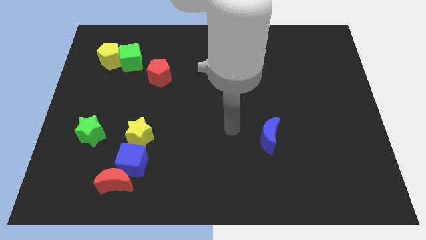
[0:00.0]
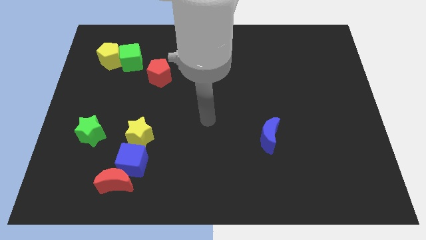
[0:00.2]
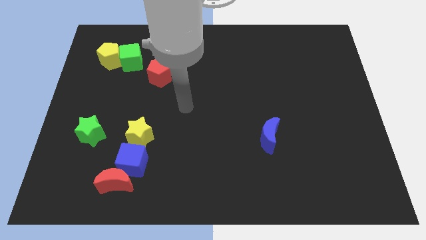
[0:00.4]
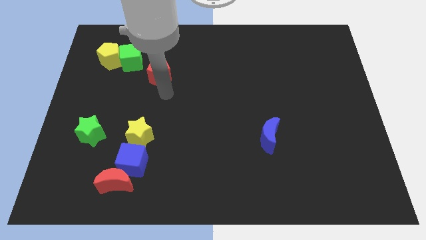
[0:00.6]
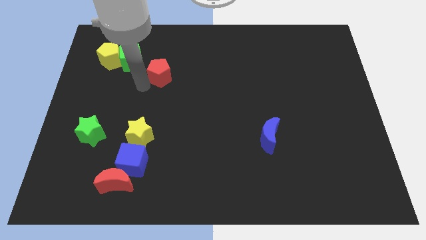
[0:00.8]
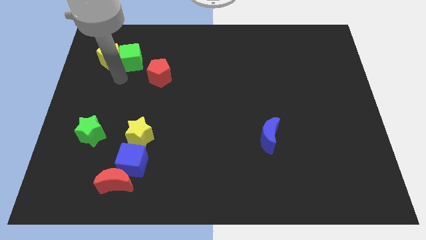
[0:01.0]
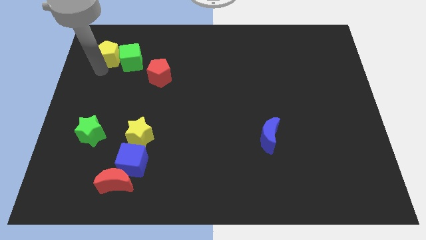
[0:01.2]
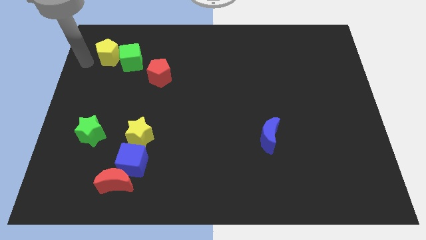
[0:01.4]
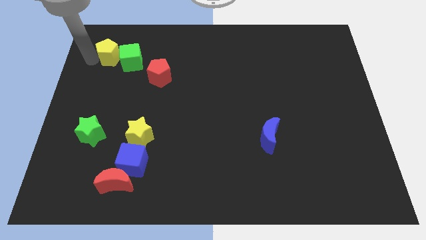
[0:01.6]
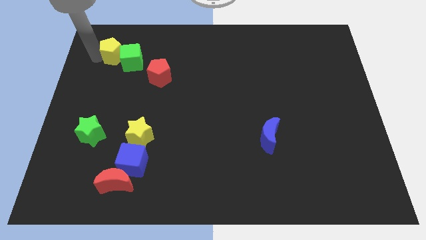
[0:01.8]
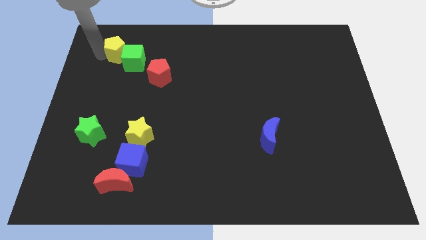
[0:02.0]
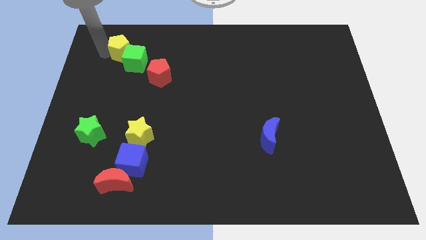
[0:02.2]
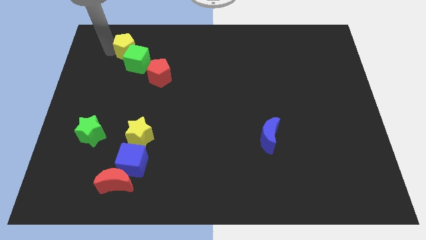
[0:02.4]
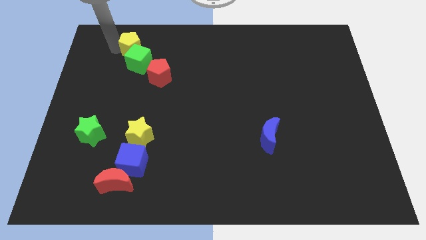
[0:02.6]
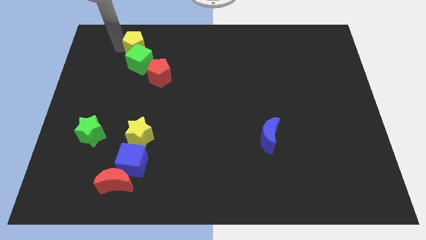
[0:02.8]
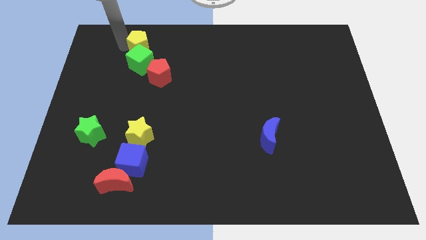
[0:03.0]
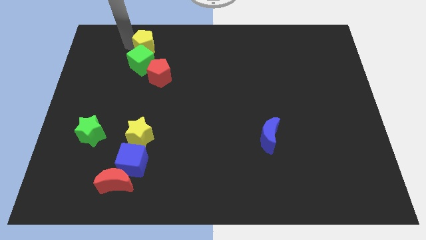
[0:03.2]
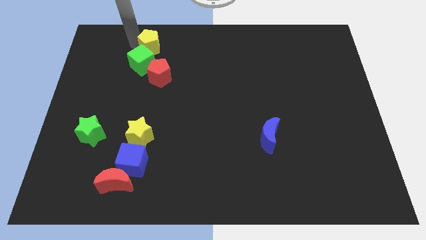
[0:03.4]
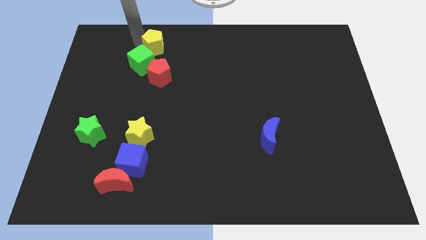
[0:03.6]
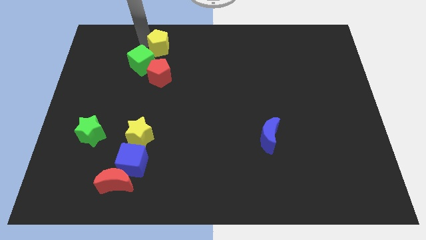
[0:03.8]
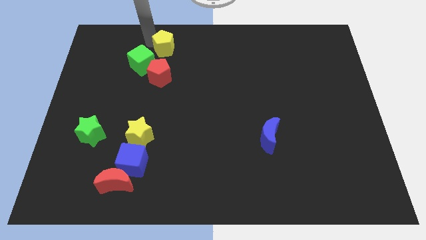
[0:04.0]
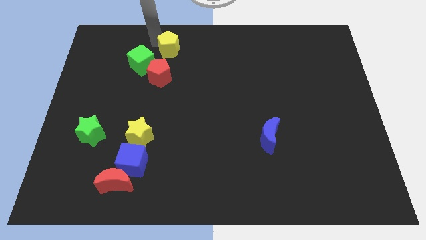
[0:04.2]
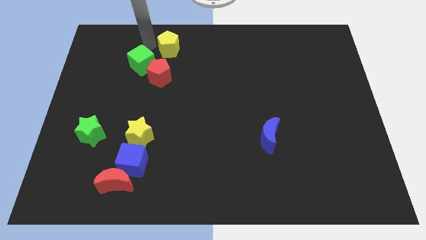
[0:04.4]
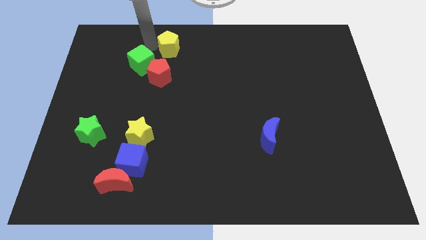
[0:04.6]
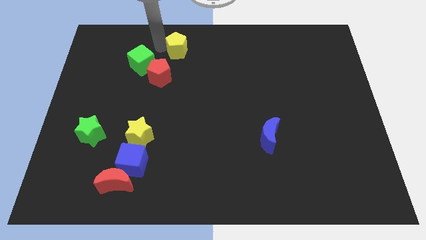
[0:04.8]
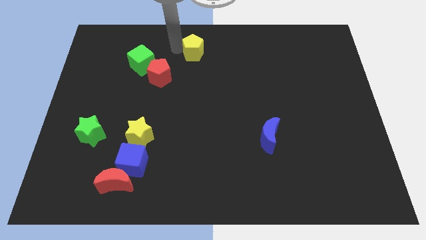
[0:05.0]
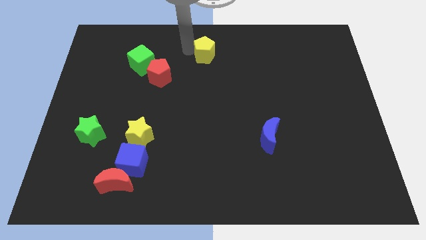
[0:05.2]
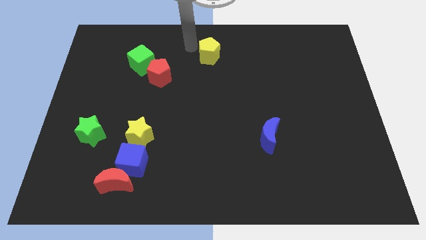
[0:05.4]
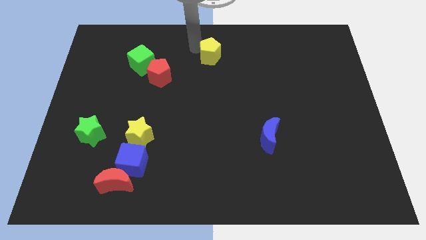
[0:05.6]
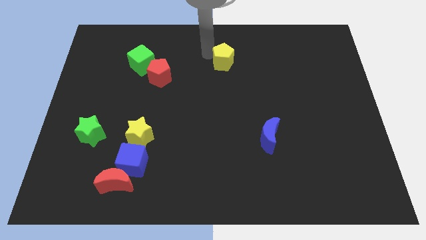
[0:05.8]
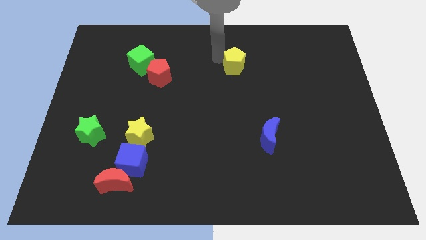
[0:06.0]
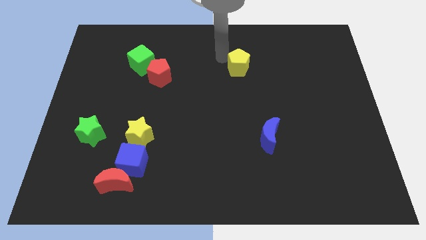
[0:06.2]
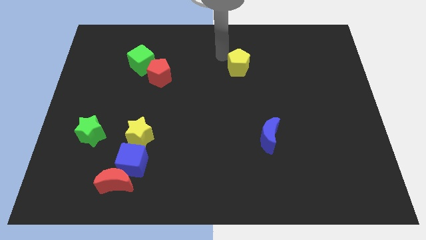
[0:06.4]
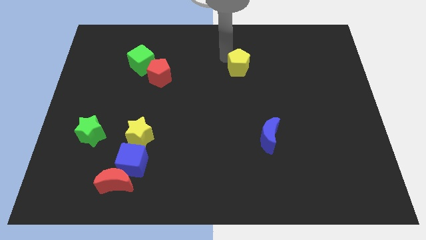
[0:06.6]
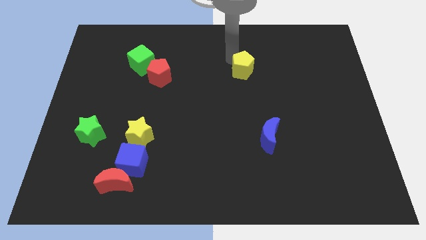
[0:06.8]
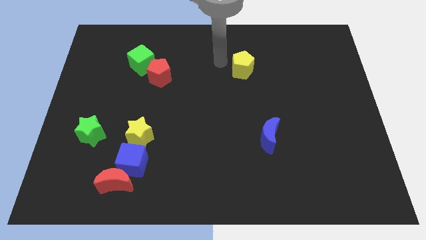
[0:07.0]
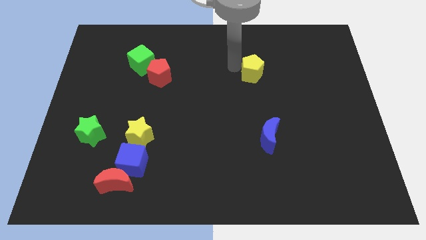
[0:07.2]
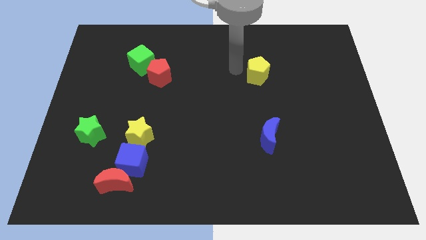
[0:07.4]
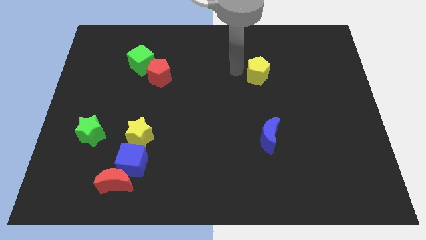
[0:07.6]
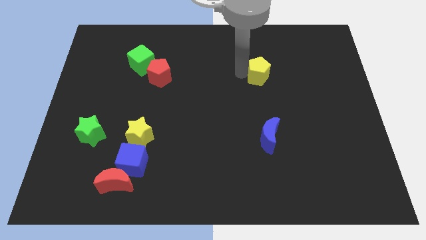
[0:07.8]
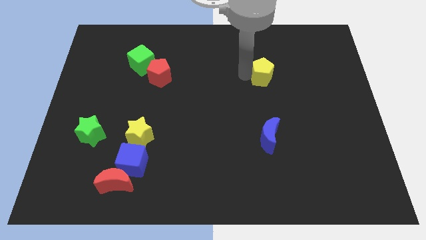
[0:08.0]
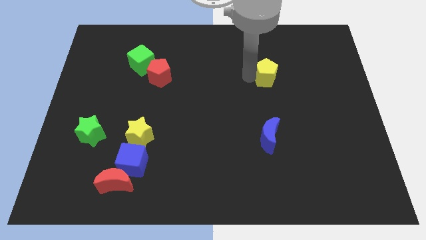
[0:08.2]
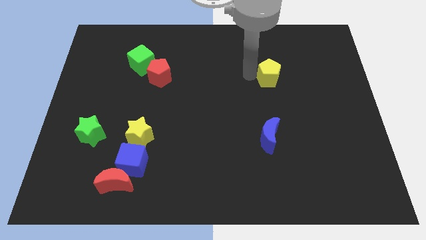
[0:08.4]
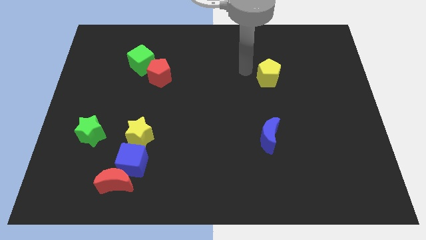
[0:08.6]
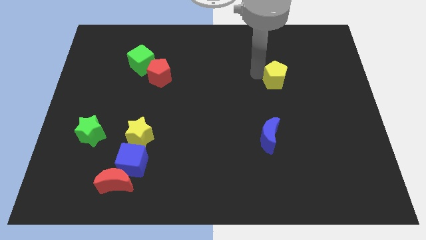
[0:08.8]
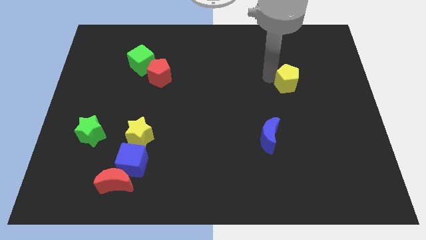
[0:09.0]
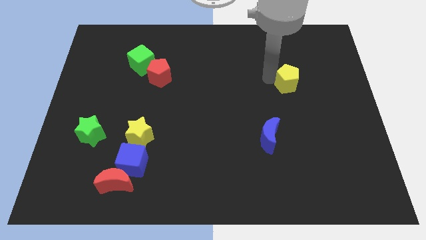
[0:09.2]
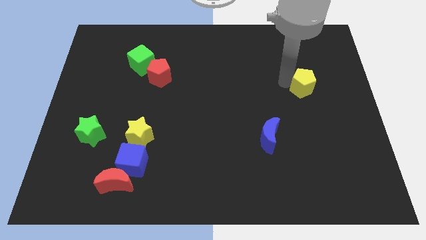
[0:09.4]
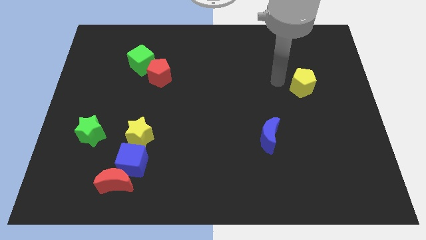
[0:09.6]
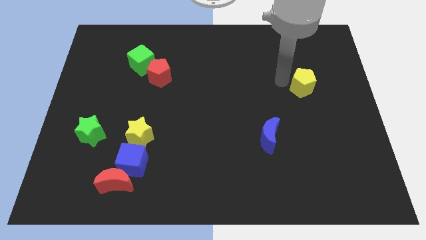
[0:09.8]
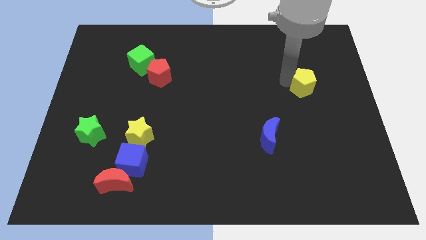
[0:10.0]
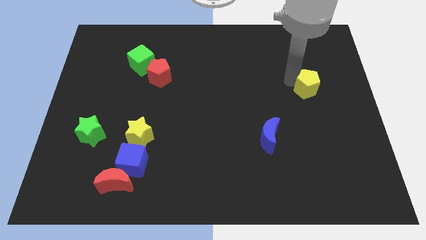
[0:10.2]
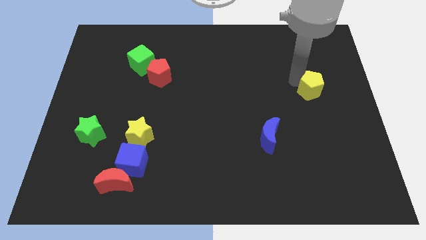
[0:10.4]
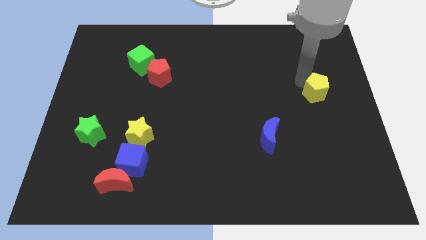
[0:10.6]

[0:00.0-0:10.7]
slide the yellow pentagon to the right side of the board
